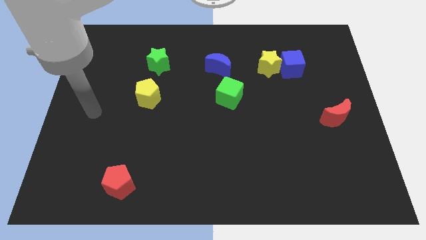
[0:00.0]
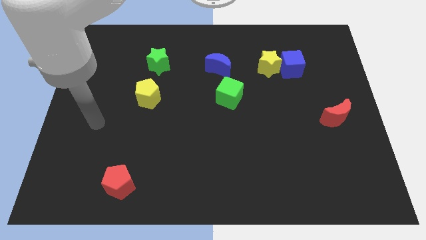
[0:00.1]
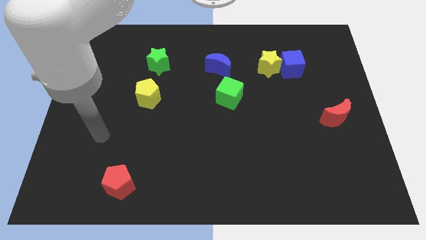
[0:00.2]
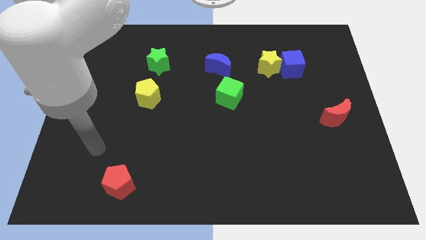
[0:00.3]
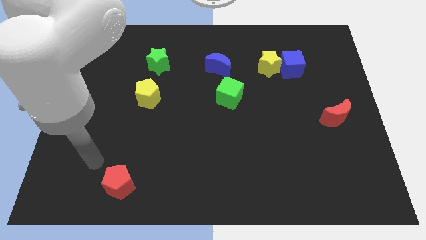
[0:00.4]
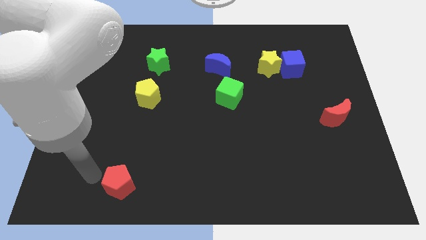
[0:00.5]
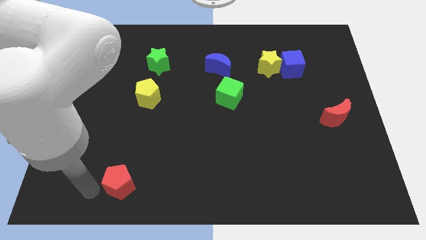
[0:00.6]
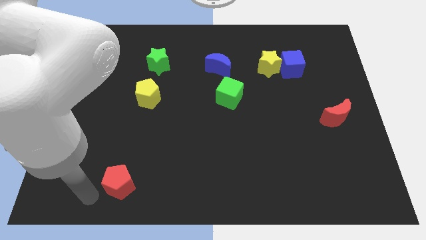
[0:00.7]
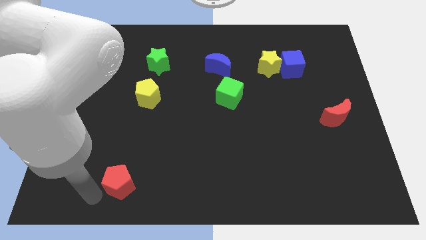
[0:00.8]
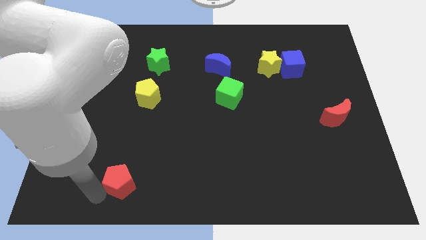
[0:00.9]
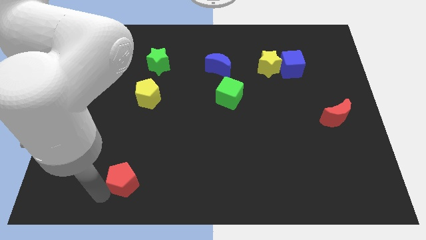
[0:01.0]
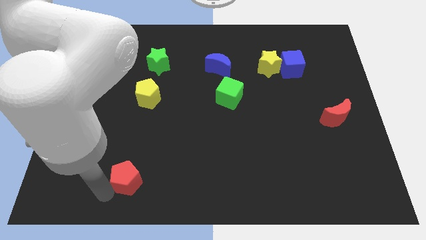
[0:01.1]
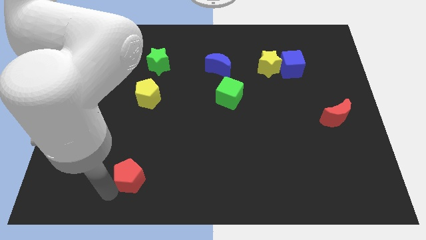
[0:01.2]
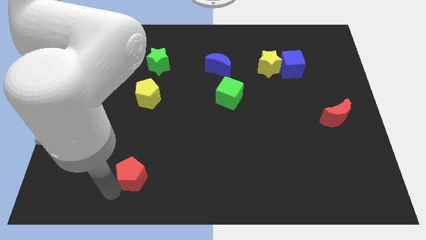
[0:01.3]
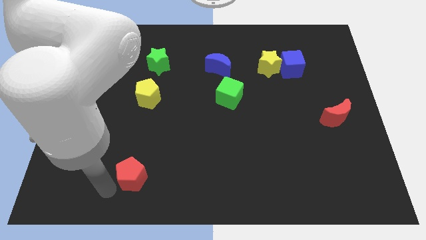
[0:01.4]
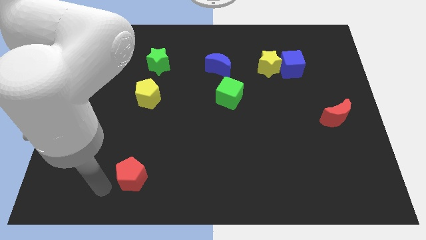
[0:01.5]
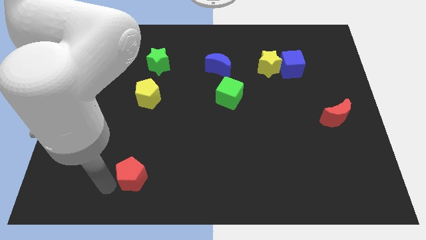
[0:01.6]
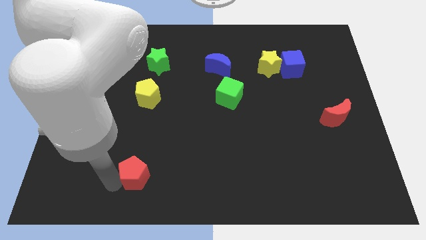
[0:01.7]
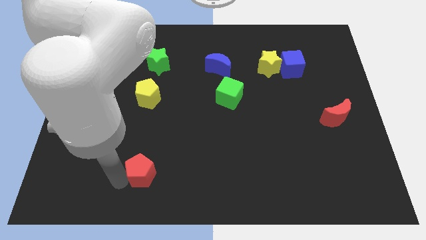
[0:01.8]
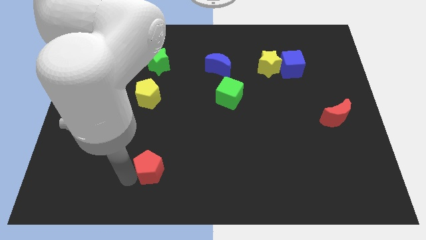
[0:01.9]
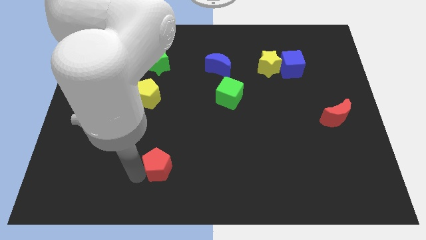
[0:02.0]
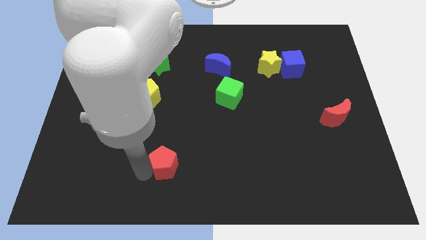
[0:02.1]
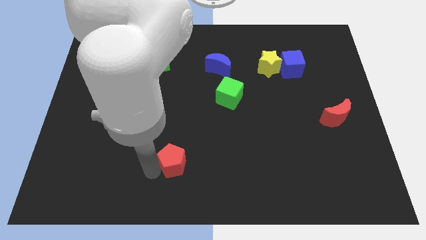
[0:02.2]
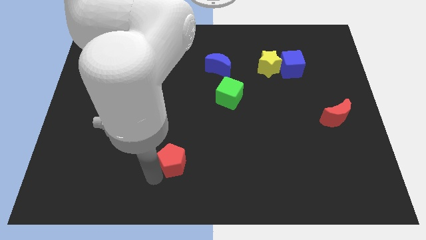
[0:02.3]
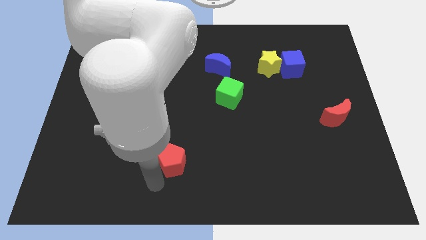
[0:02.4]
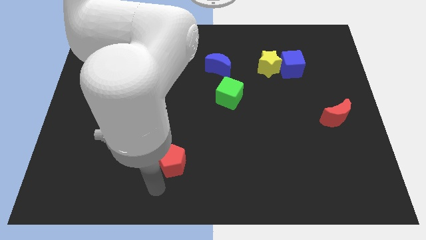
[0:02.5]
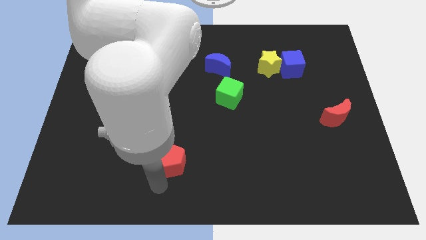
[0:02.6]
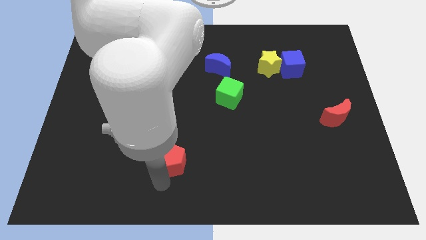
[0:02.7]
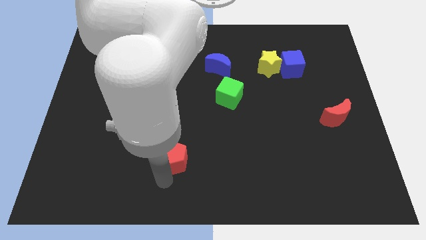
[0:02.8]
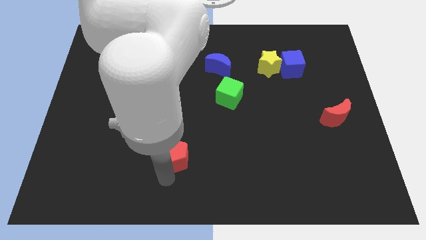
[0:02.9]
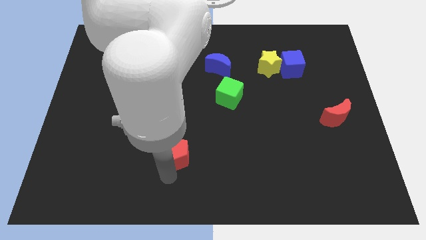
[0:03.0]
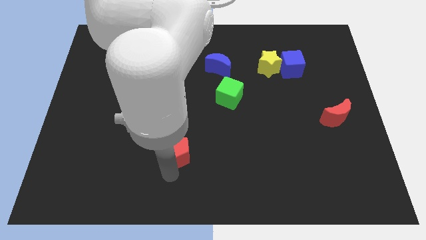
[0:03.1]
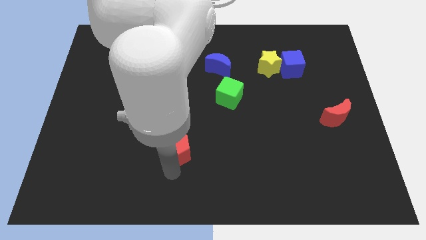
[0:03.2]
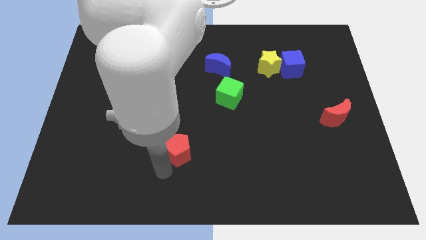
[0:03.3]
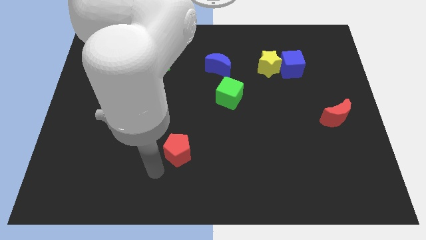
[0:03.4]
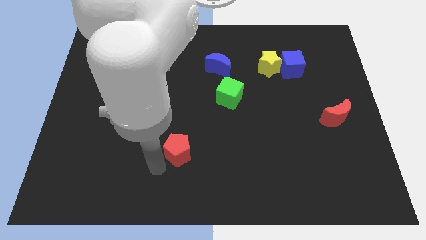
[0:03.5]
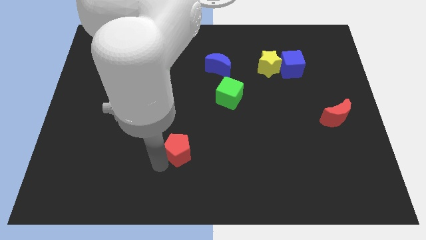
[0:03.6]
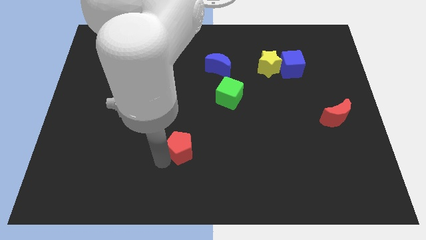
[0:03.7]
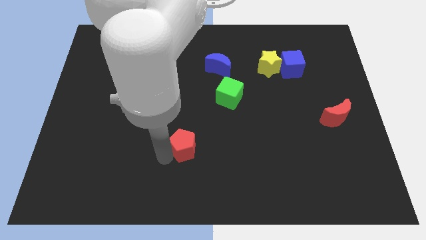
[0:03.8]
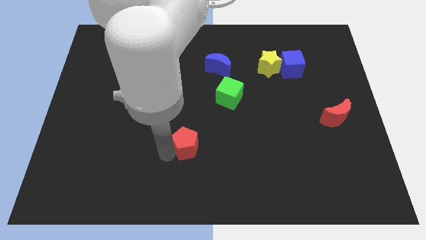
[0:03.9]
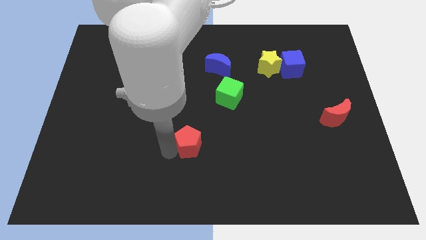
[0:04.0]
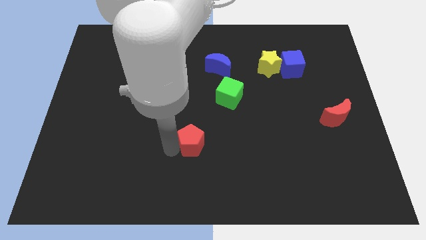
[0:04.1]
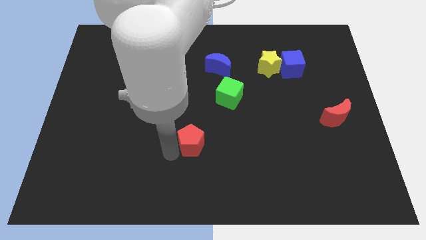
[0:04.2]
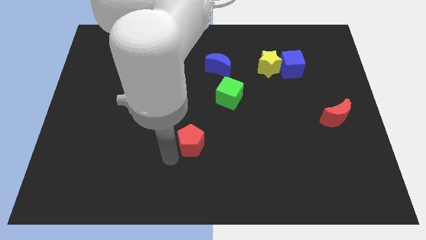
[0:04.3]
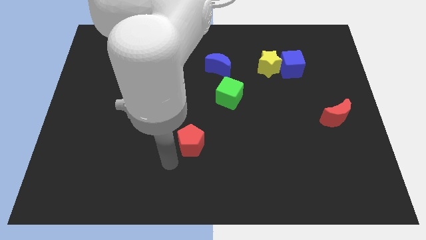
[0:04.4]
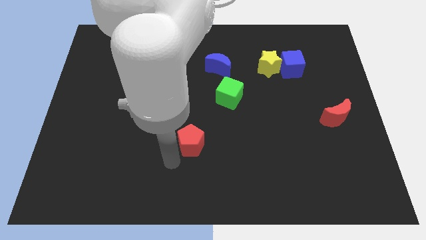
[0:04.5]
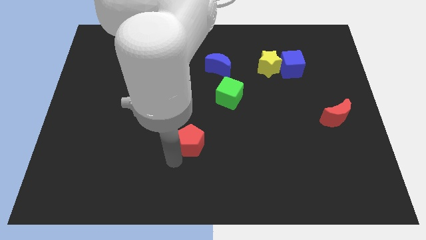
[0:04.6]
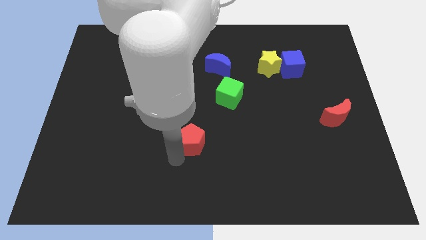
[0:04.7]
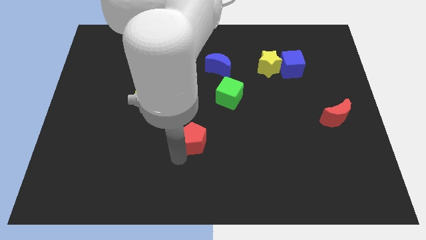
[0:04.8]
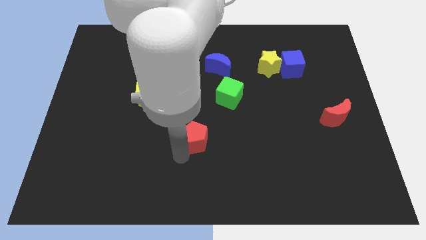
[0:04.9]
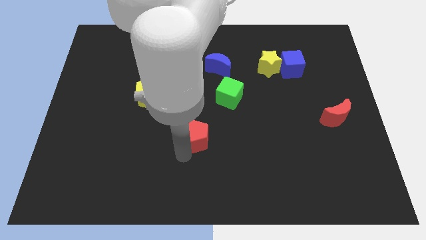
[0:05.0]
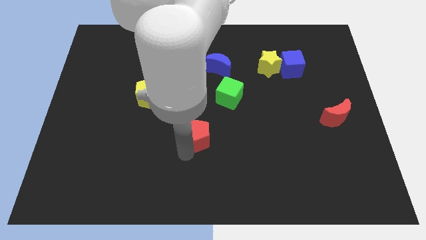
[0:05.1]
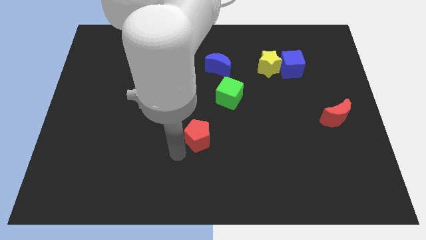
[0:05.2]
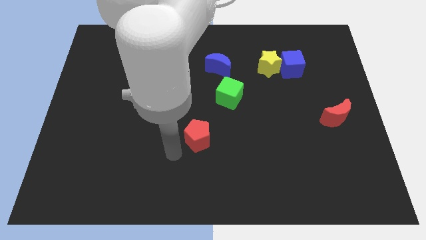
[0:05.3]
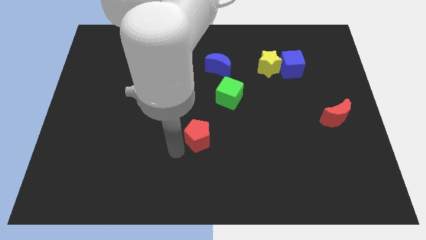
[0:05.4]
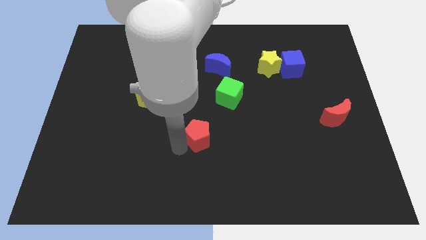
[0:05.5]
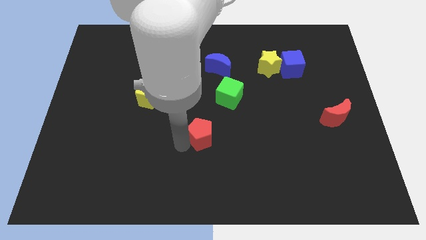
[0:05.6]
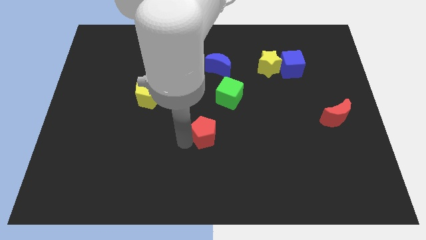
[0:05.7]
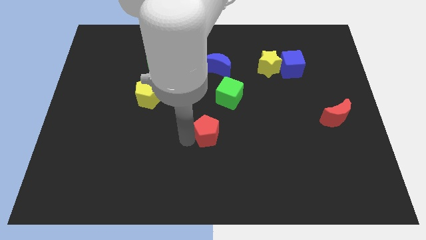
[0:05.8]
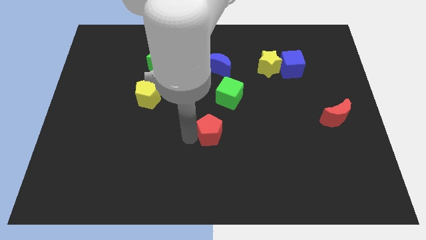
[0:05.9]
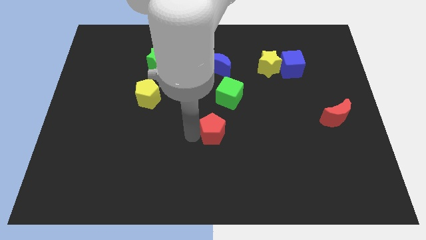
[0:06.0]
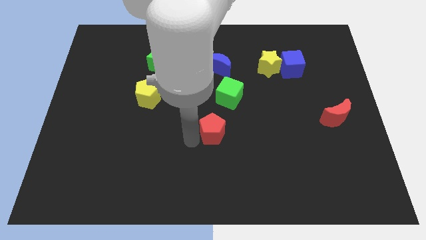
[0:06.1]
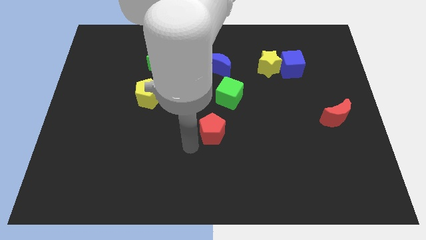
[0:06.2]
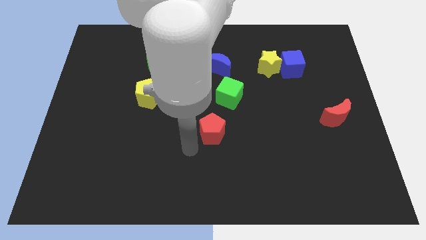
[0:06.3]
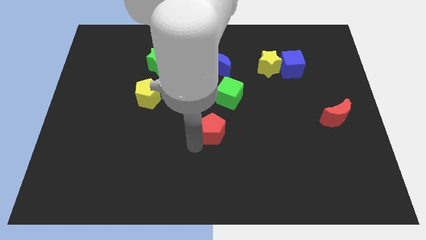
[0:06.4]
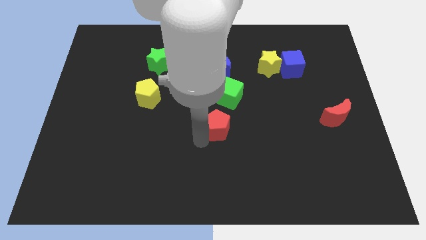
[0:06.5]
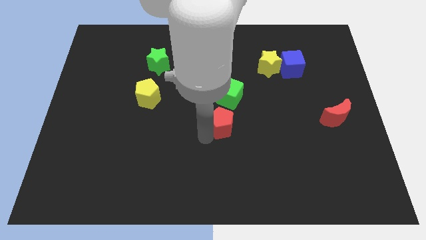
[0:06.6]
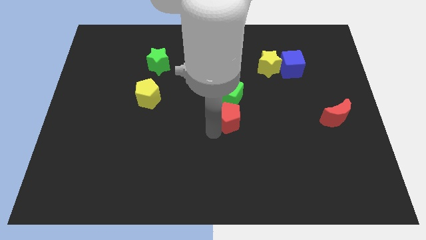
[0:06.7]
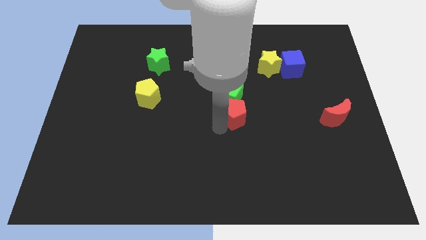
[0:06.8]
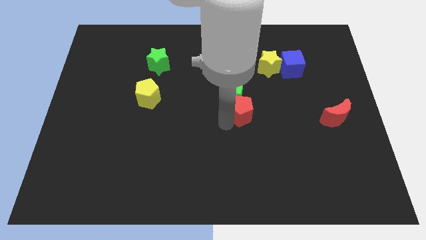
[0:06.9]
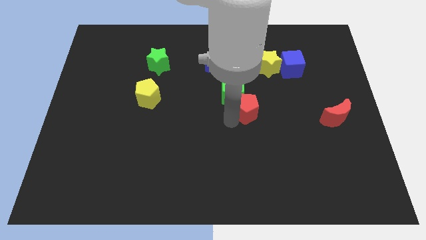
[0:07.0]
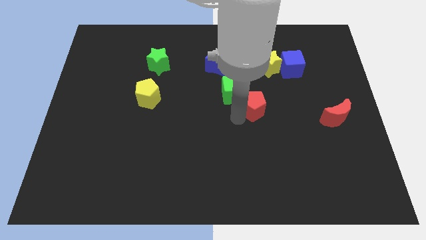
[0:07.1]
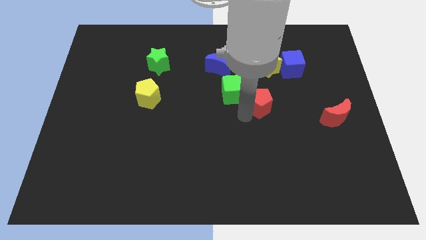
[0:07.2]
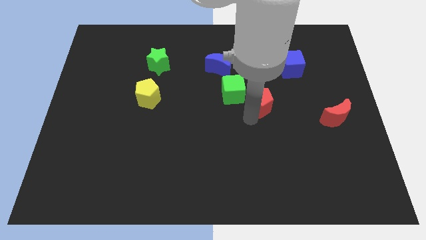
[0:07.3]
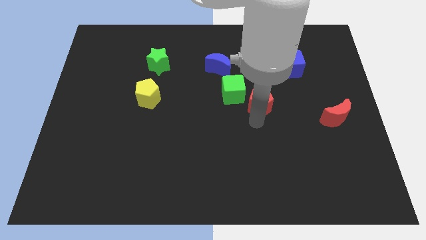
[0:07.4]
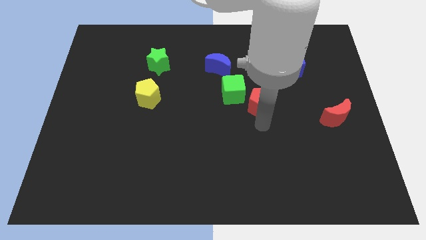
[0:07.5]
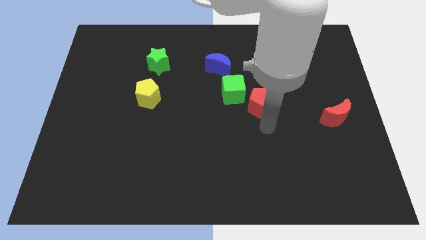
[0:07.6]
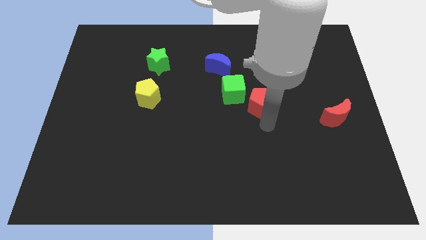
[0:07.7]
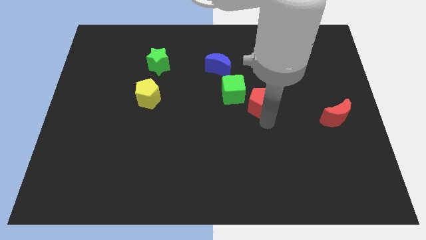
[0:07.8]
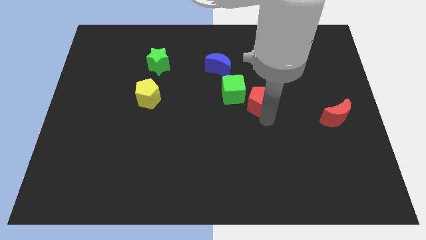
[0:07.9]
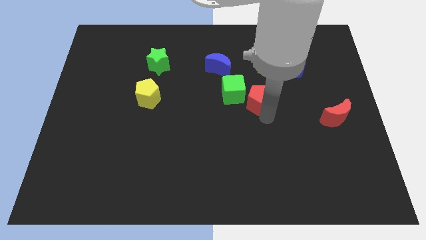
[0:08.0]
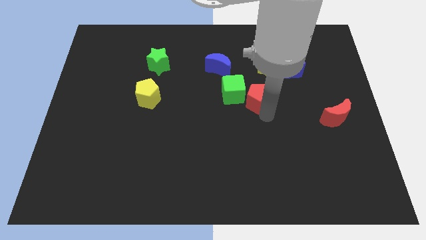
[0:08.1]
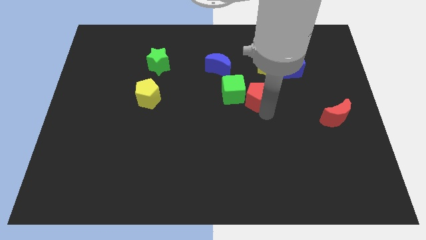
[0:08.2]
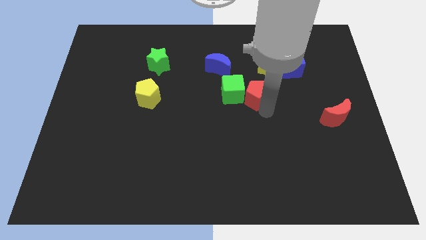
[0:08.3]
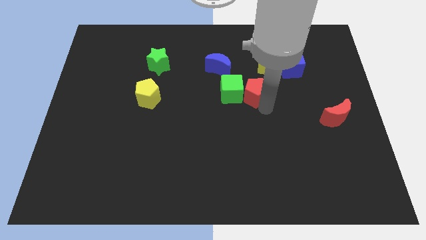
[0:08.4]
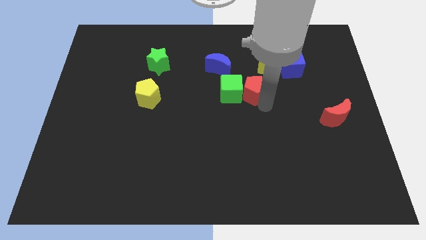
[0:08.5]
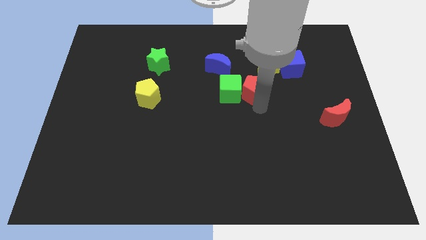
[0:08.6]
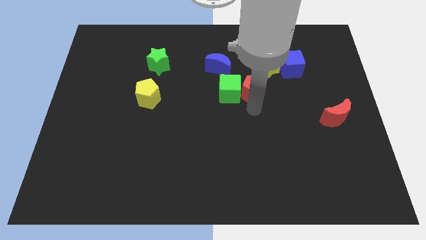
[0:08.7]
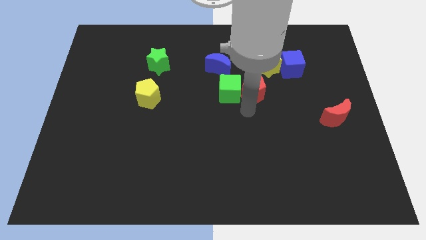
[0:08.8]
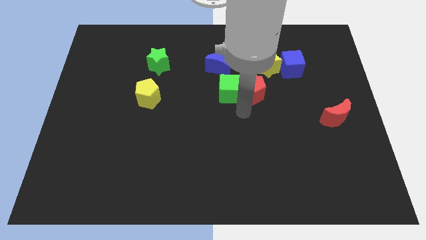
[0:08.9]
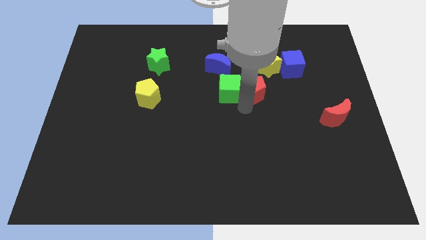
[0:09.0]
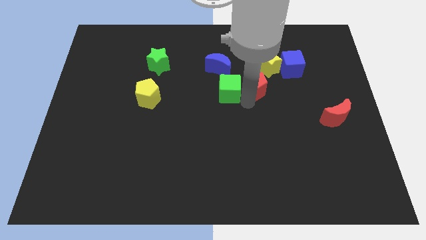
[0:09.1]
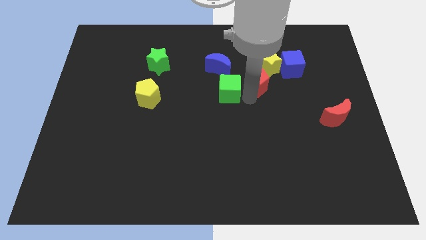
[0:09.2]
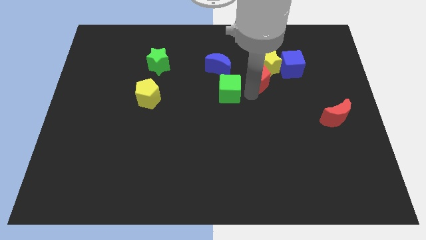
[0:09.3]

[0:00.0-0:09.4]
put the red pentagon next to the yellow star
